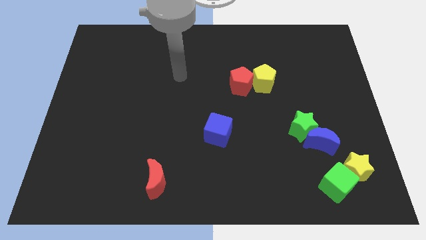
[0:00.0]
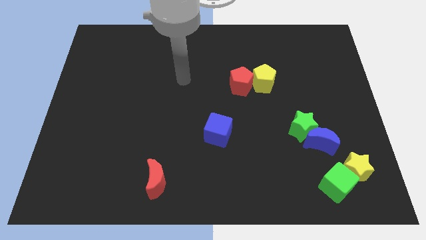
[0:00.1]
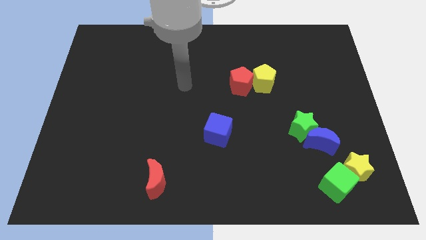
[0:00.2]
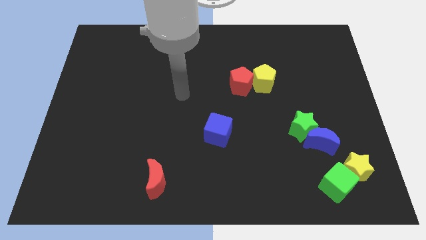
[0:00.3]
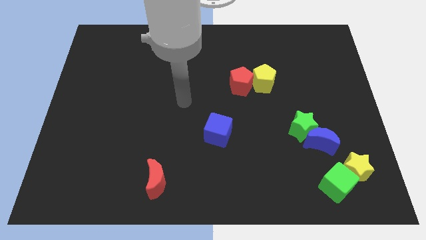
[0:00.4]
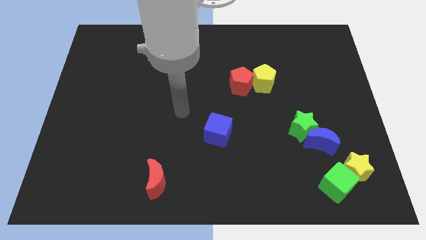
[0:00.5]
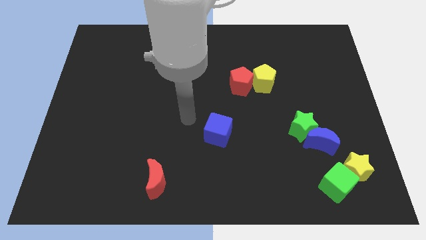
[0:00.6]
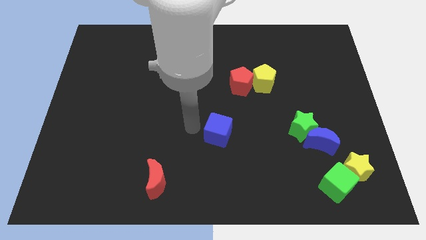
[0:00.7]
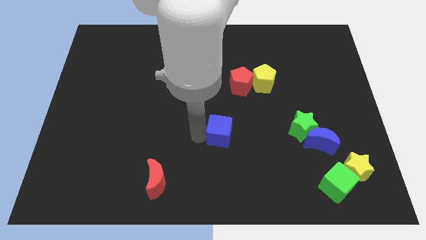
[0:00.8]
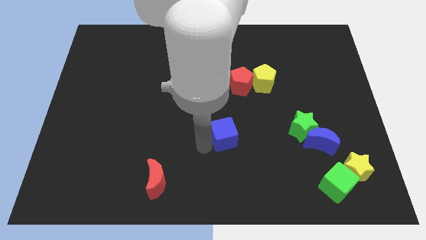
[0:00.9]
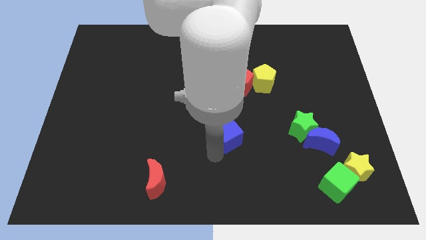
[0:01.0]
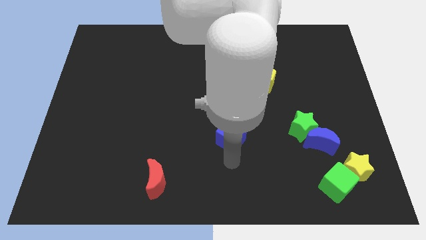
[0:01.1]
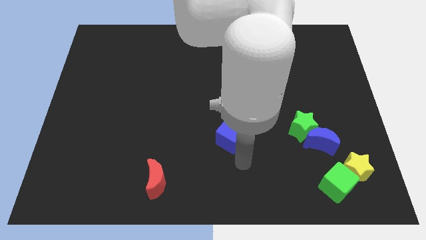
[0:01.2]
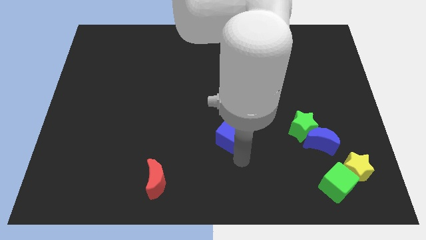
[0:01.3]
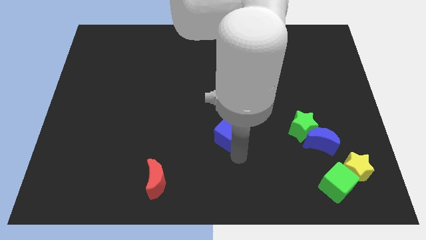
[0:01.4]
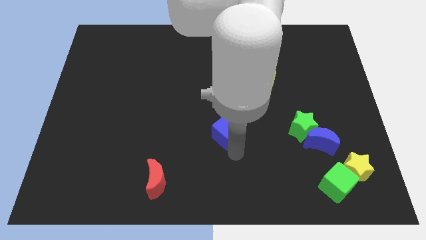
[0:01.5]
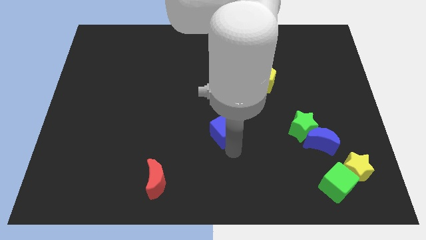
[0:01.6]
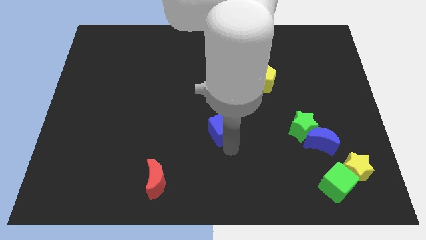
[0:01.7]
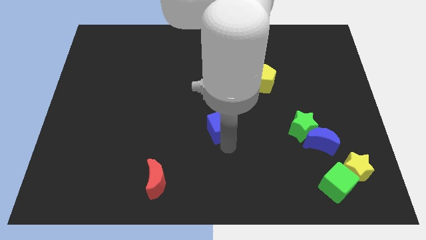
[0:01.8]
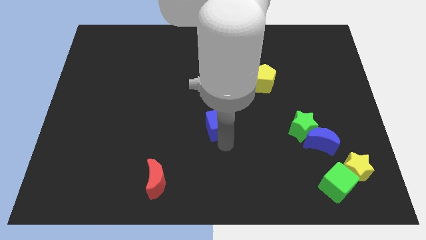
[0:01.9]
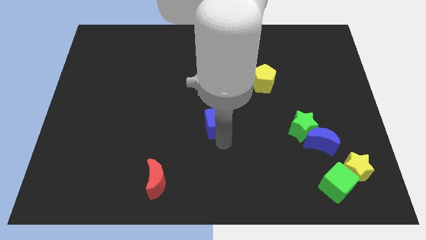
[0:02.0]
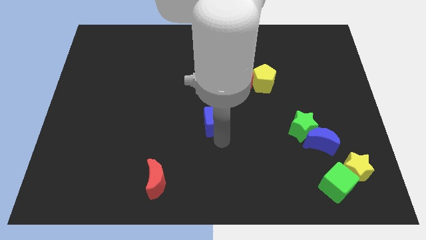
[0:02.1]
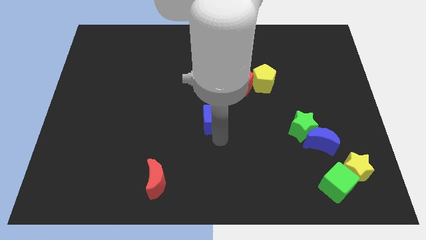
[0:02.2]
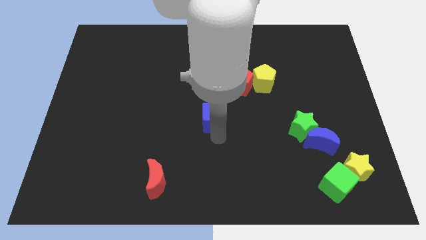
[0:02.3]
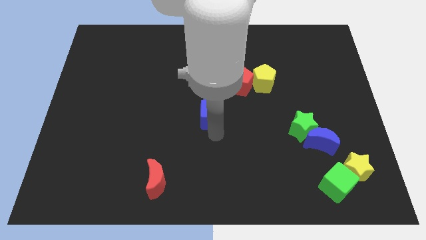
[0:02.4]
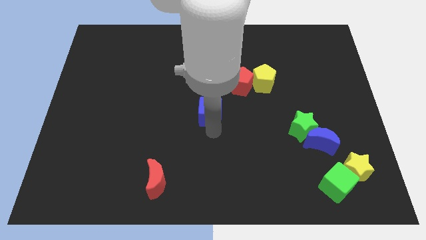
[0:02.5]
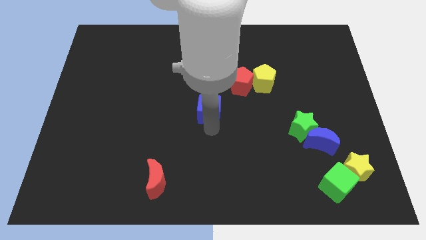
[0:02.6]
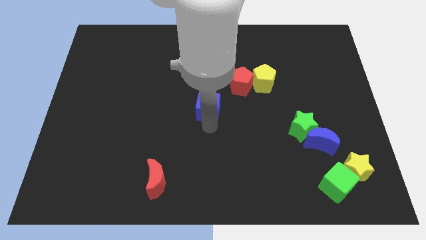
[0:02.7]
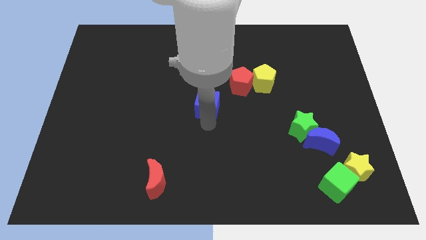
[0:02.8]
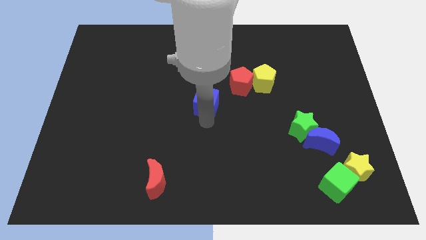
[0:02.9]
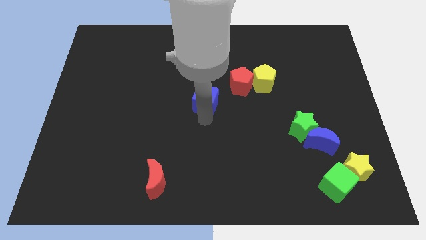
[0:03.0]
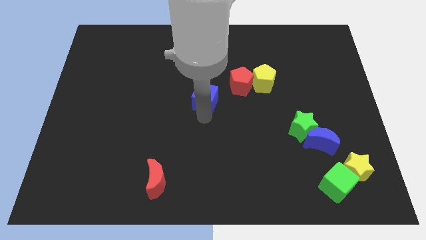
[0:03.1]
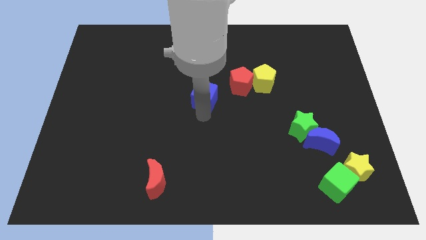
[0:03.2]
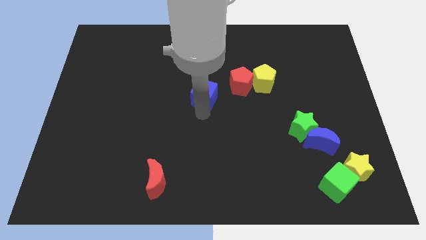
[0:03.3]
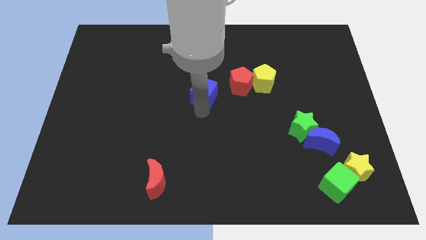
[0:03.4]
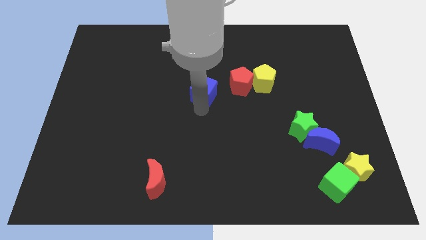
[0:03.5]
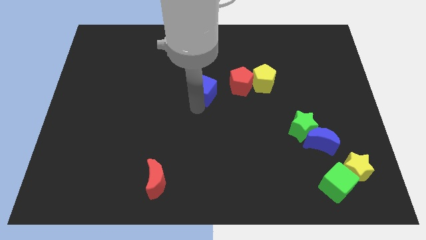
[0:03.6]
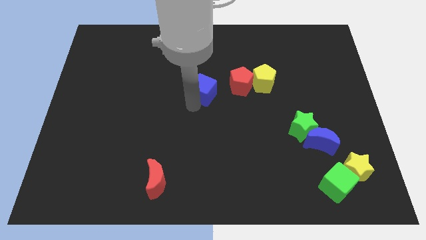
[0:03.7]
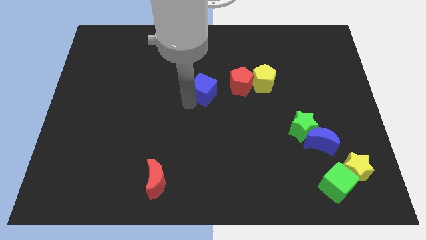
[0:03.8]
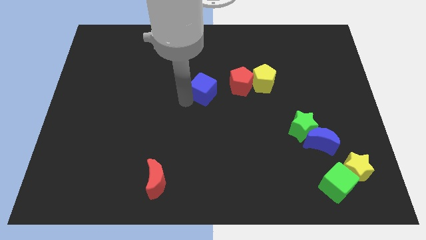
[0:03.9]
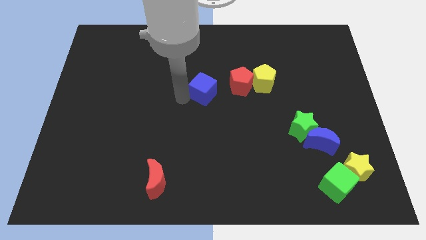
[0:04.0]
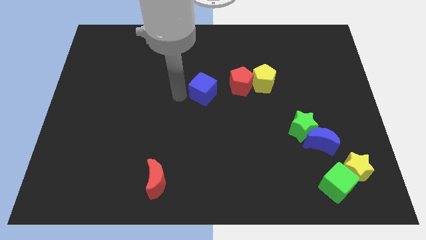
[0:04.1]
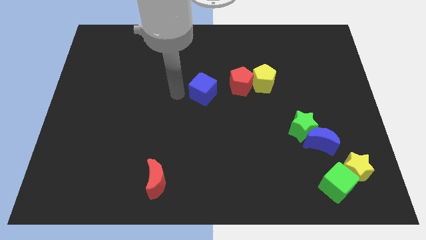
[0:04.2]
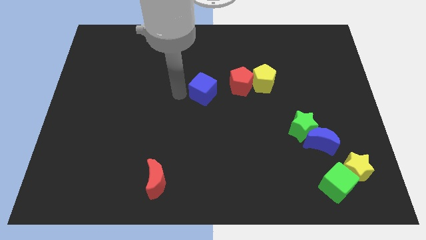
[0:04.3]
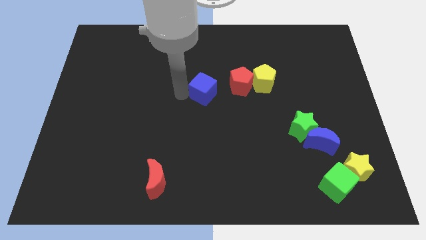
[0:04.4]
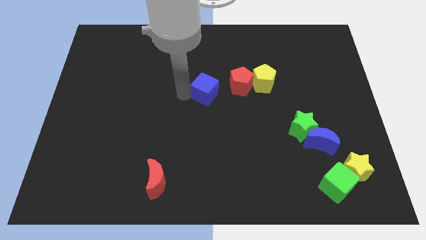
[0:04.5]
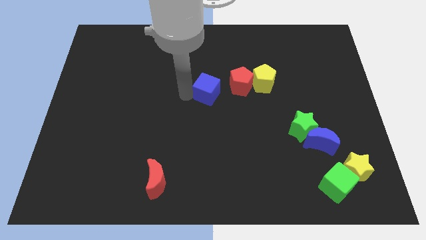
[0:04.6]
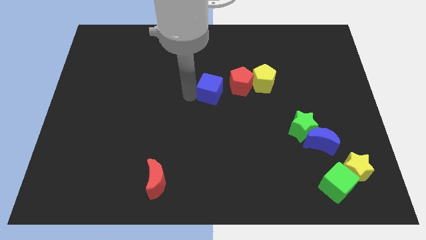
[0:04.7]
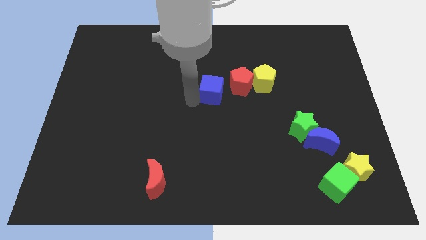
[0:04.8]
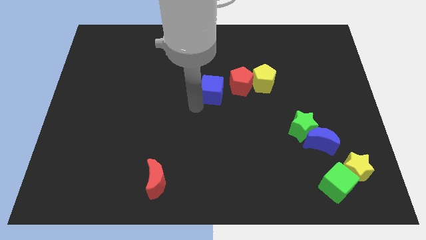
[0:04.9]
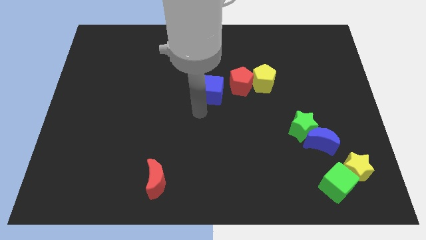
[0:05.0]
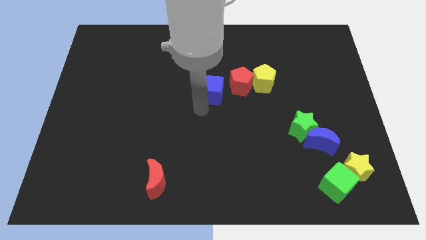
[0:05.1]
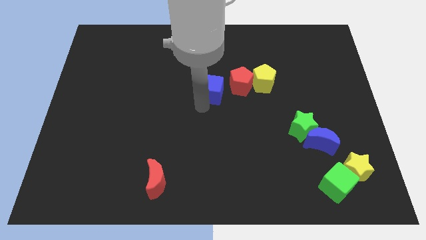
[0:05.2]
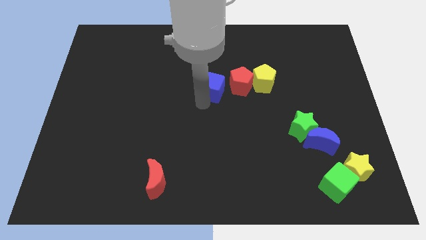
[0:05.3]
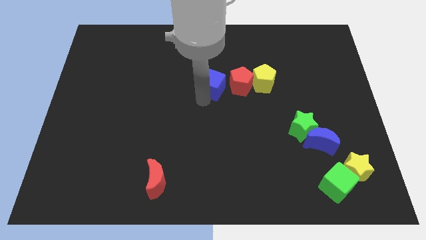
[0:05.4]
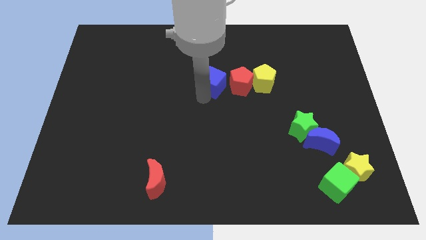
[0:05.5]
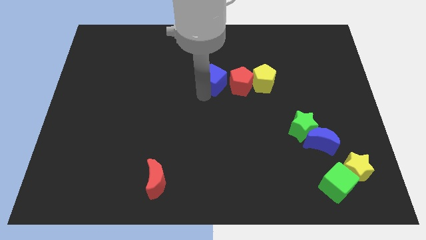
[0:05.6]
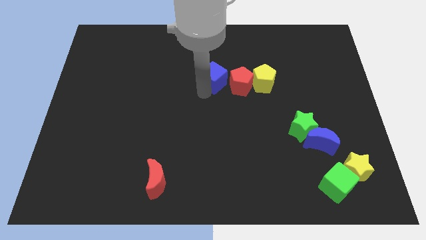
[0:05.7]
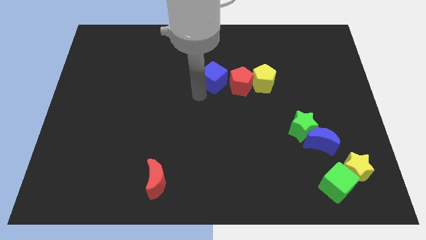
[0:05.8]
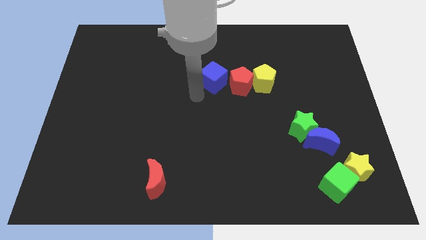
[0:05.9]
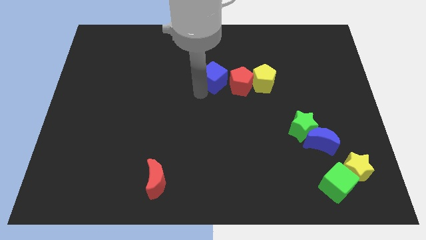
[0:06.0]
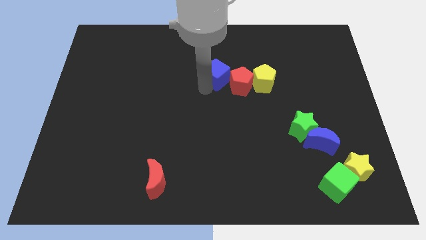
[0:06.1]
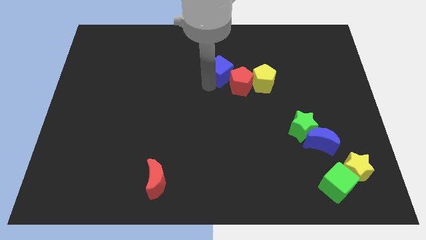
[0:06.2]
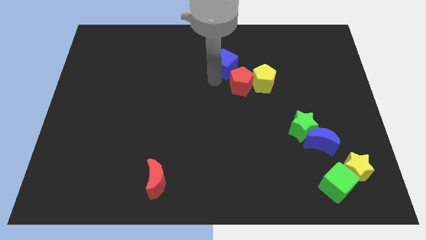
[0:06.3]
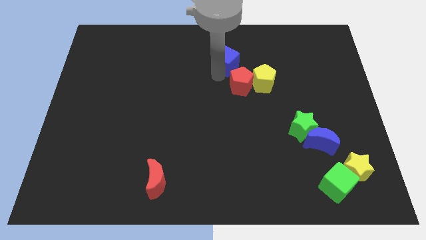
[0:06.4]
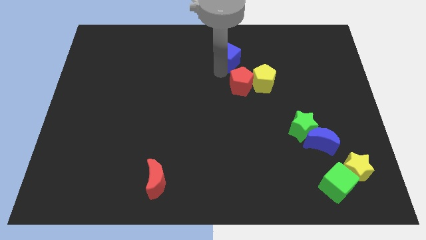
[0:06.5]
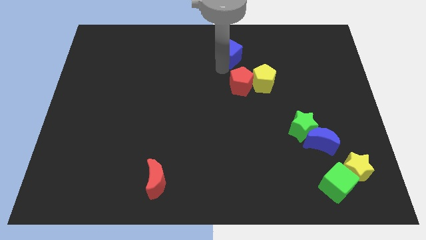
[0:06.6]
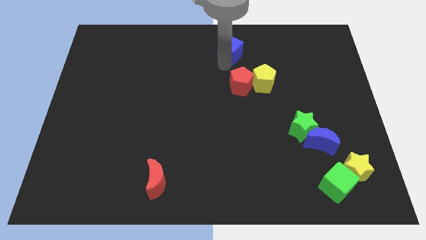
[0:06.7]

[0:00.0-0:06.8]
slide the blue cube to the top side
